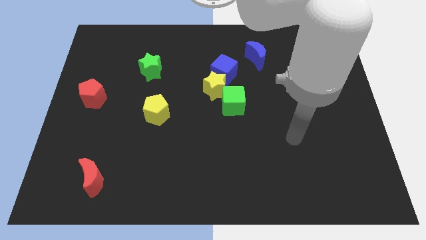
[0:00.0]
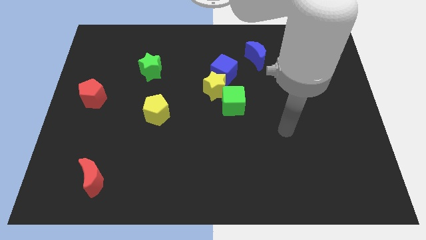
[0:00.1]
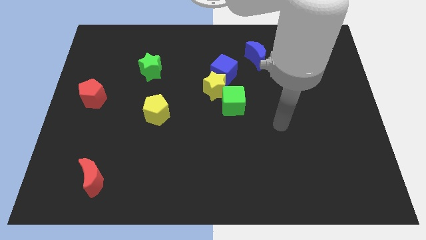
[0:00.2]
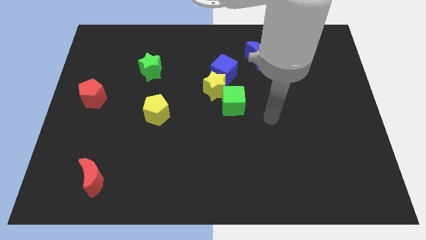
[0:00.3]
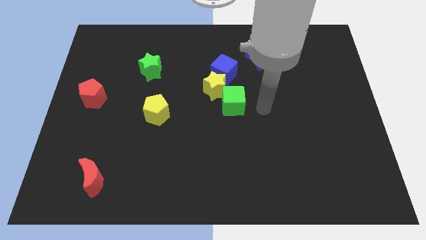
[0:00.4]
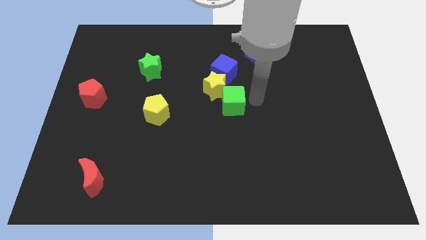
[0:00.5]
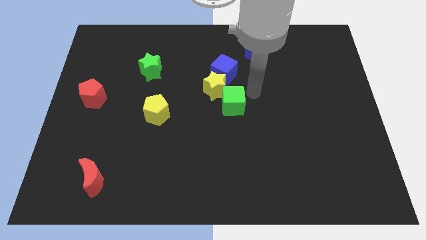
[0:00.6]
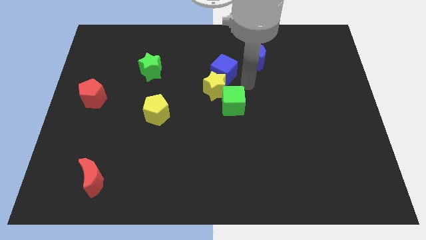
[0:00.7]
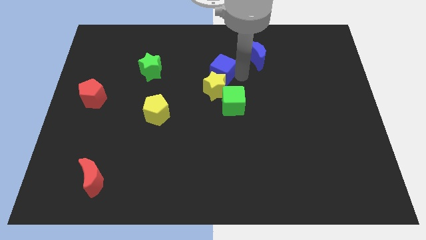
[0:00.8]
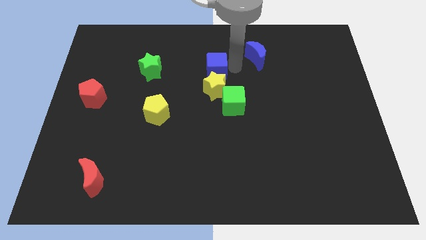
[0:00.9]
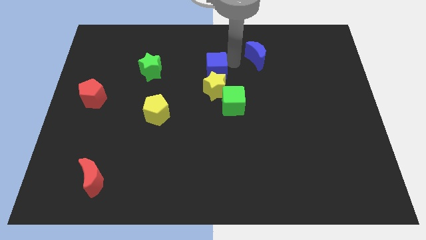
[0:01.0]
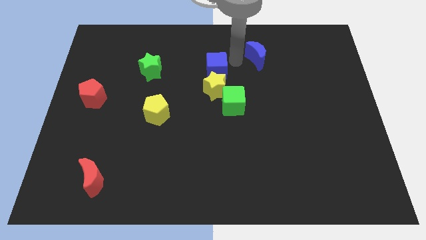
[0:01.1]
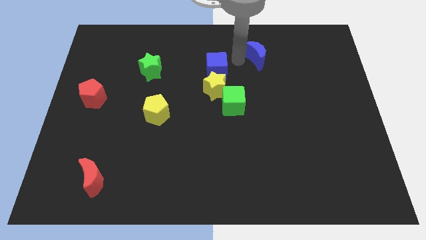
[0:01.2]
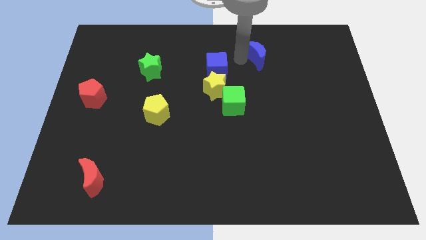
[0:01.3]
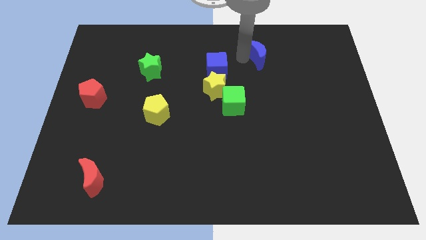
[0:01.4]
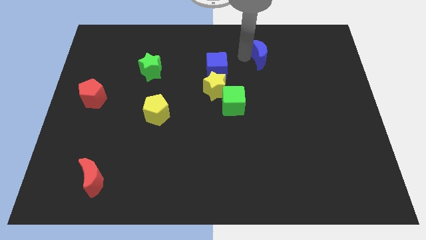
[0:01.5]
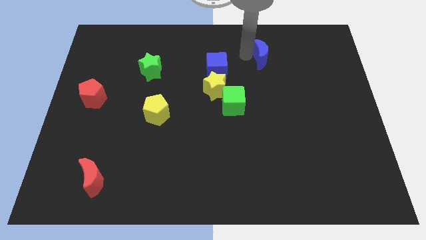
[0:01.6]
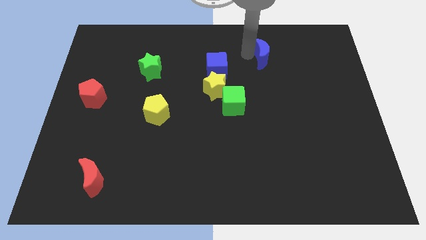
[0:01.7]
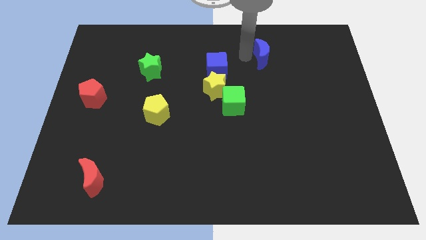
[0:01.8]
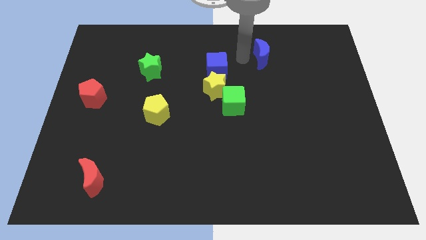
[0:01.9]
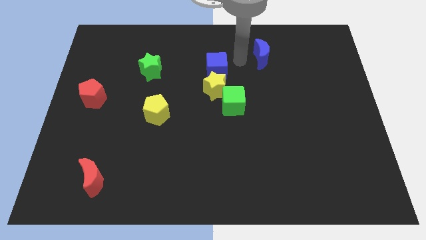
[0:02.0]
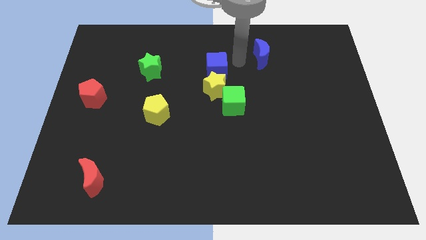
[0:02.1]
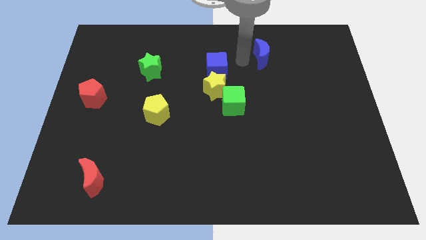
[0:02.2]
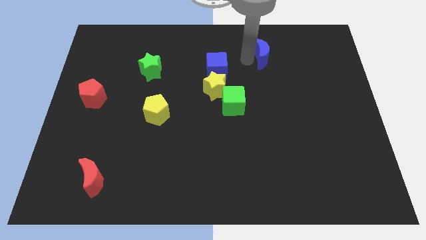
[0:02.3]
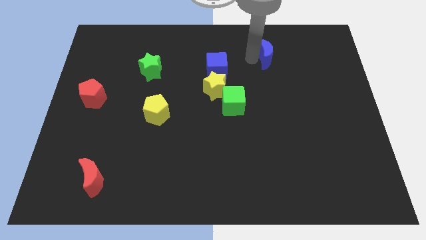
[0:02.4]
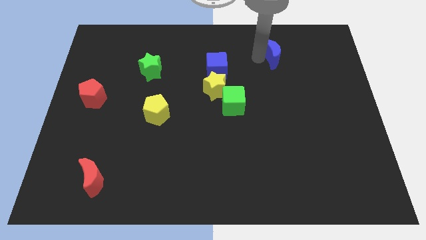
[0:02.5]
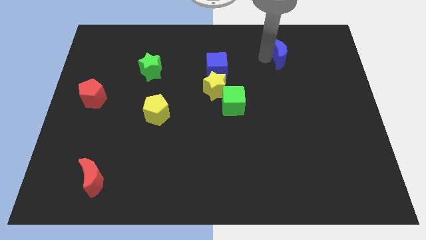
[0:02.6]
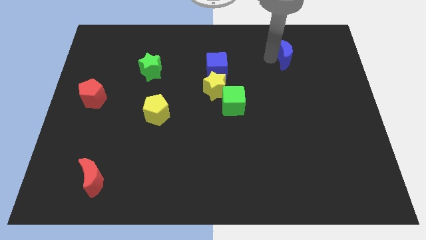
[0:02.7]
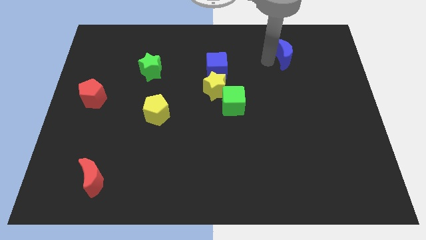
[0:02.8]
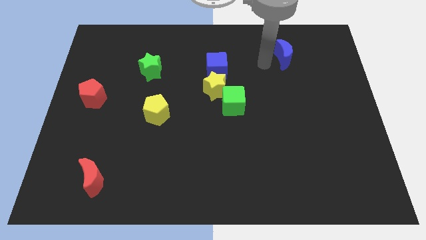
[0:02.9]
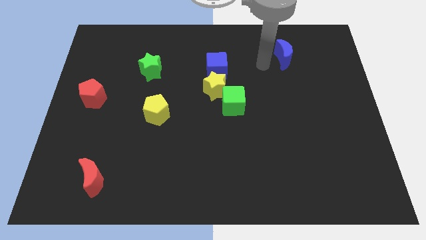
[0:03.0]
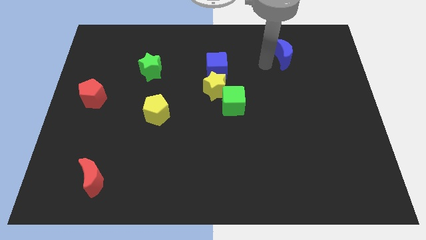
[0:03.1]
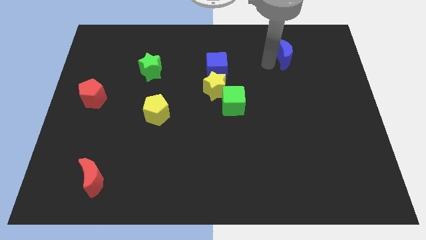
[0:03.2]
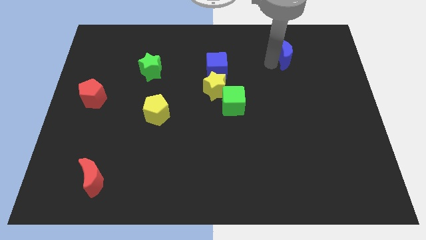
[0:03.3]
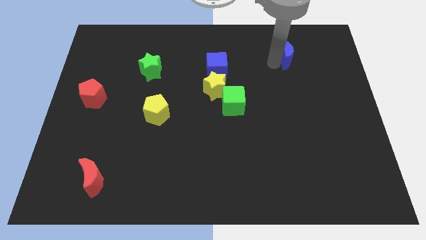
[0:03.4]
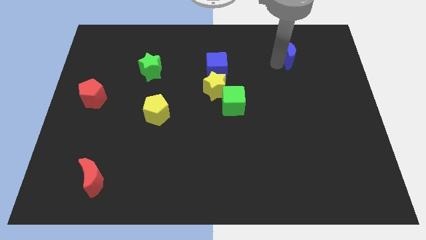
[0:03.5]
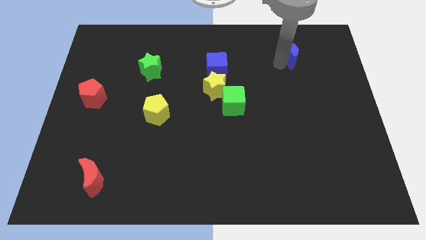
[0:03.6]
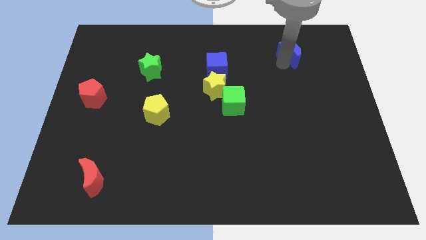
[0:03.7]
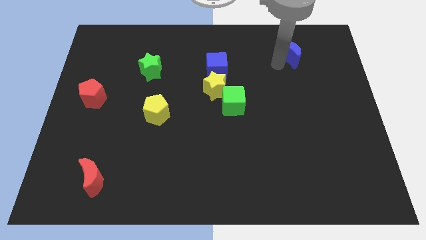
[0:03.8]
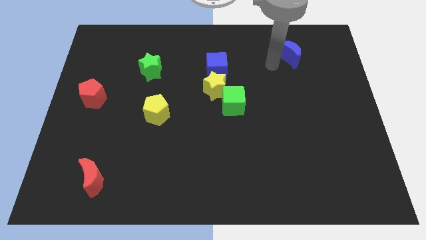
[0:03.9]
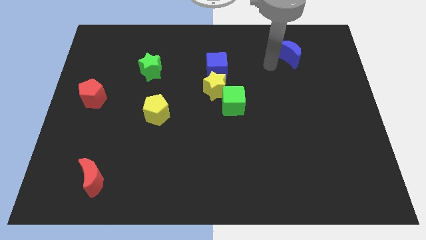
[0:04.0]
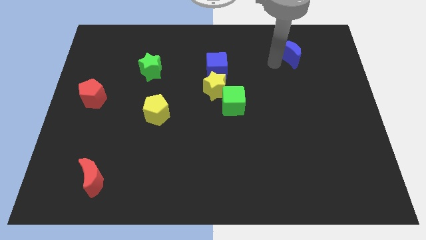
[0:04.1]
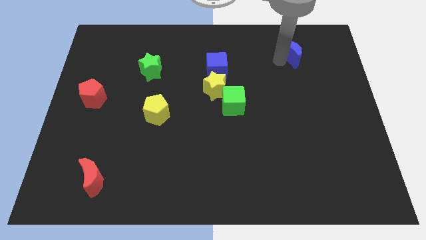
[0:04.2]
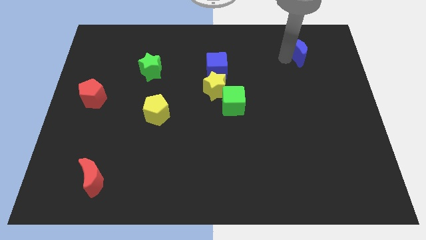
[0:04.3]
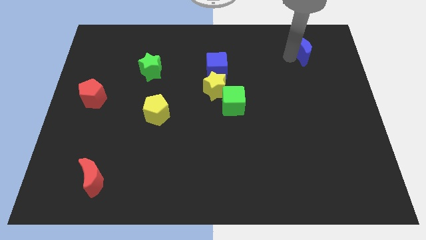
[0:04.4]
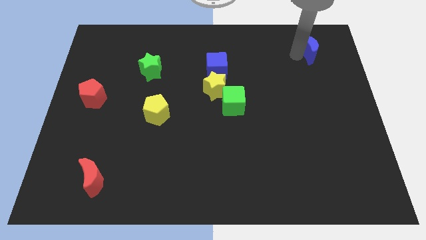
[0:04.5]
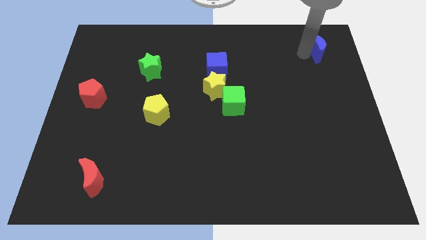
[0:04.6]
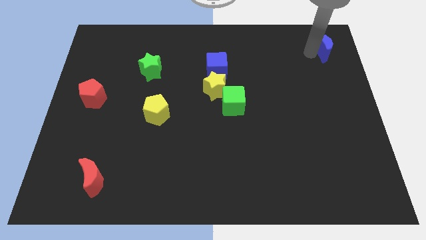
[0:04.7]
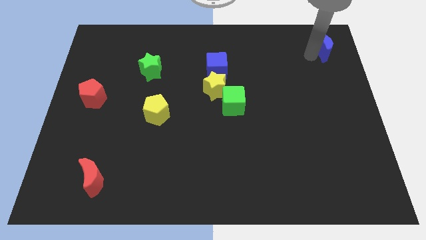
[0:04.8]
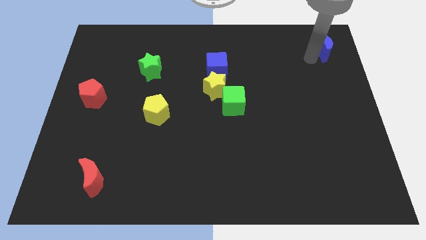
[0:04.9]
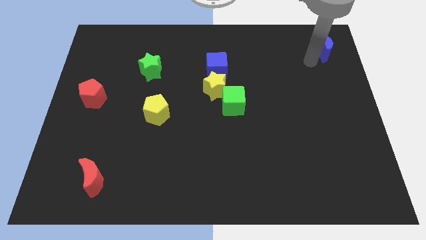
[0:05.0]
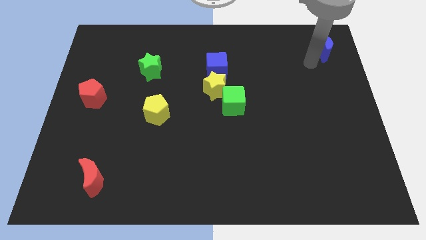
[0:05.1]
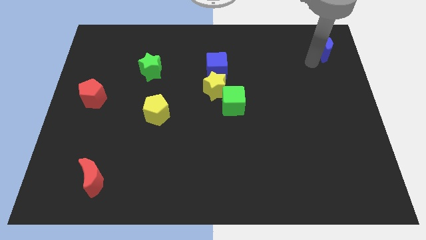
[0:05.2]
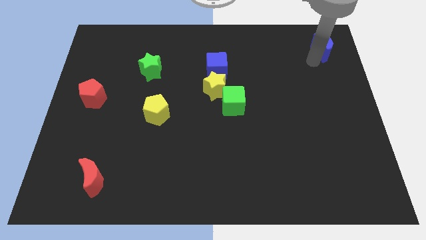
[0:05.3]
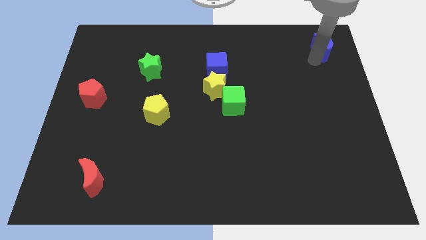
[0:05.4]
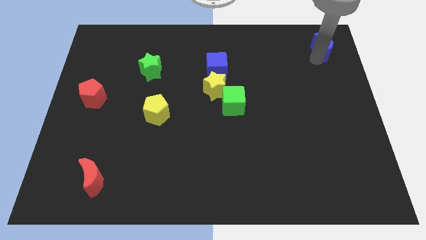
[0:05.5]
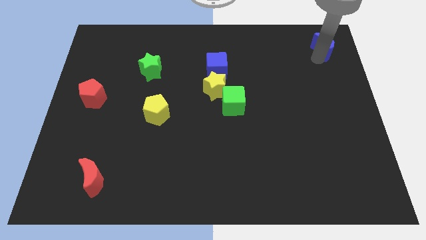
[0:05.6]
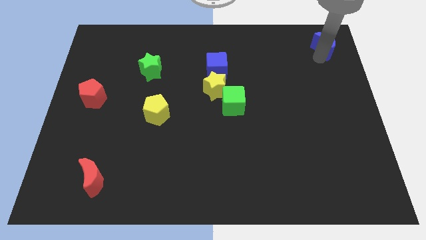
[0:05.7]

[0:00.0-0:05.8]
move the blue moon to the upper right corner

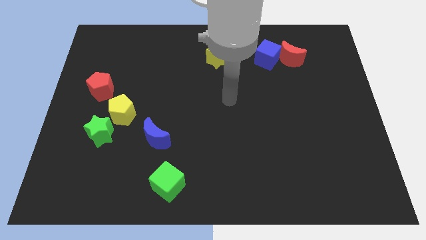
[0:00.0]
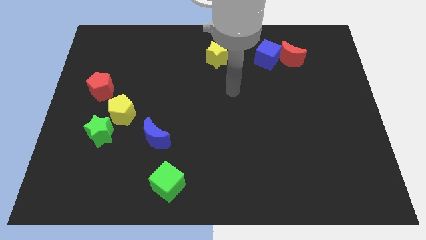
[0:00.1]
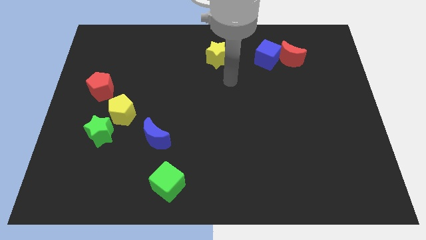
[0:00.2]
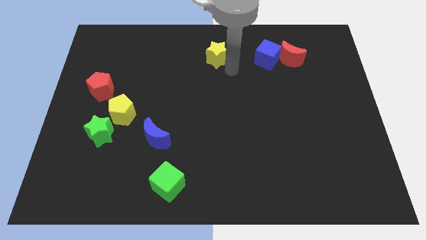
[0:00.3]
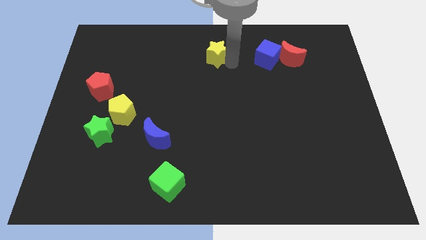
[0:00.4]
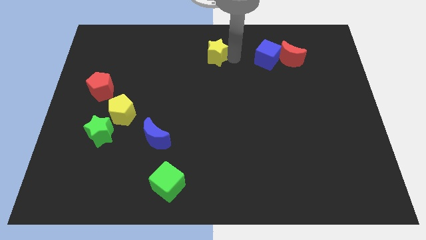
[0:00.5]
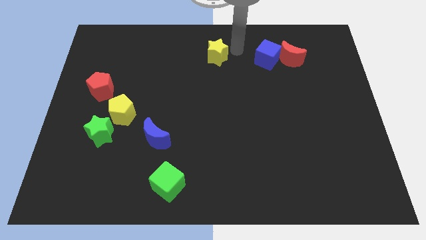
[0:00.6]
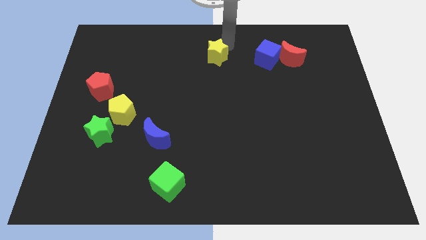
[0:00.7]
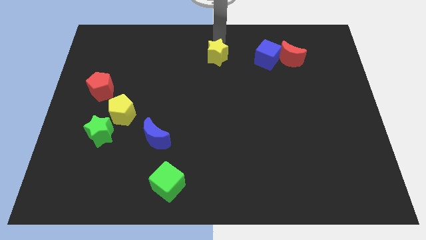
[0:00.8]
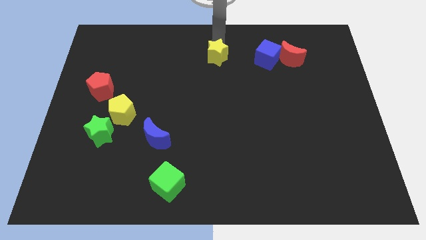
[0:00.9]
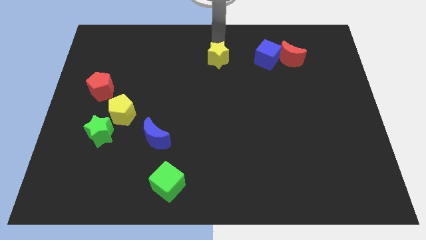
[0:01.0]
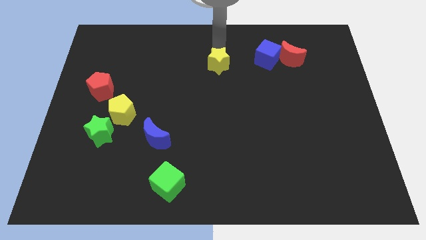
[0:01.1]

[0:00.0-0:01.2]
push the yellow star to the middle
